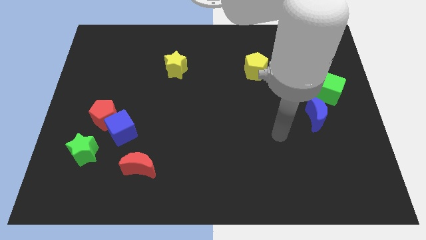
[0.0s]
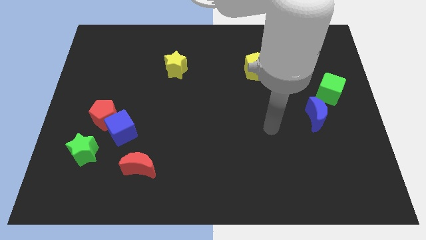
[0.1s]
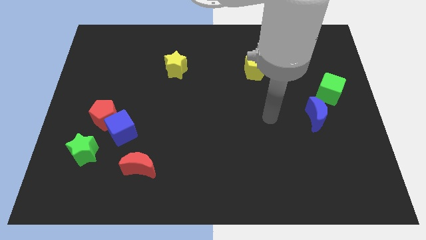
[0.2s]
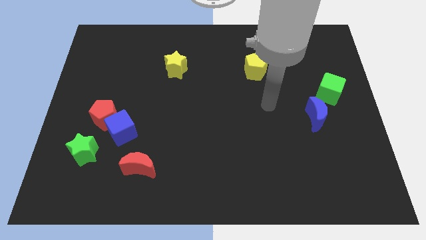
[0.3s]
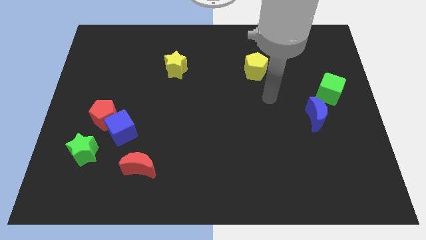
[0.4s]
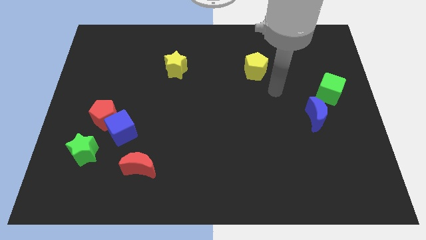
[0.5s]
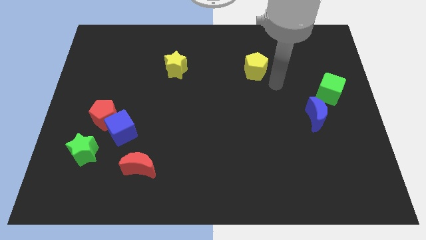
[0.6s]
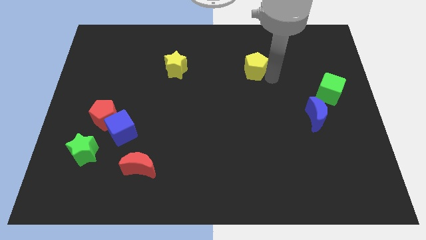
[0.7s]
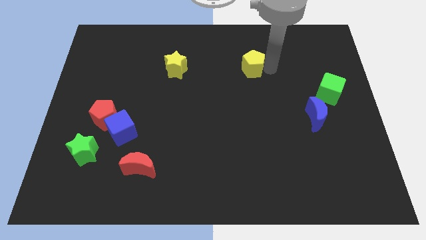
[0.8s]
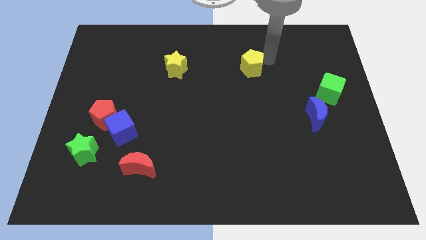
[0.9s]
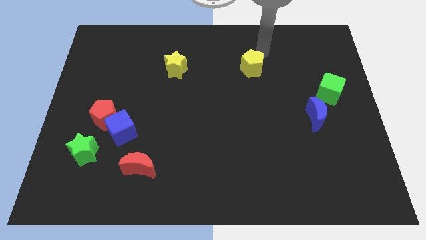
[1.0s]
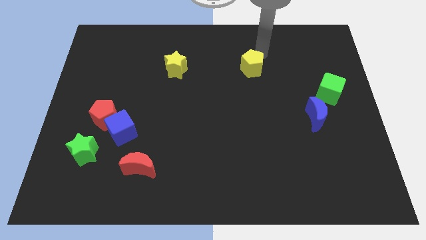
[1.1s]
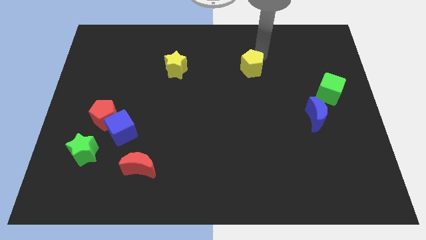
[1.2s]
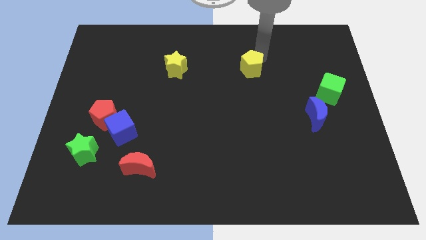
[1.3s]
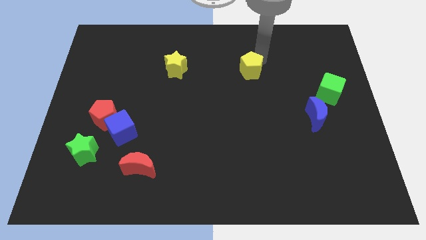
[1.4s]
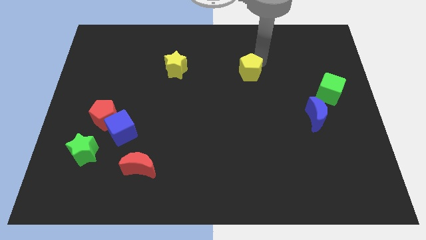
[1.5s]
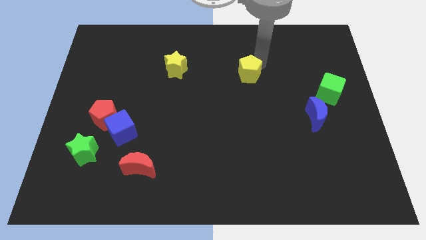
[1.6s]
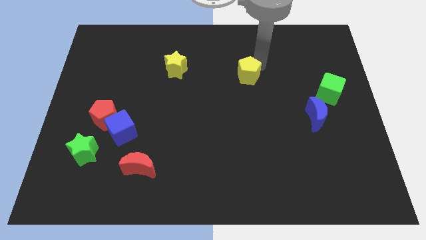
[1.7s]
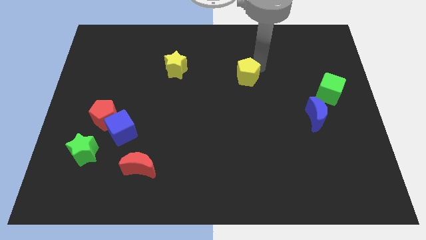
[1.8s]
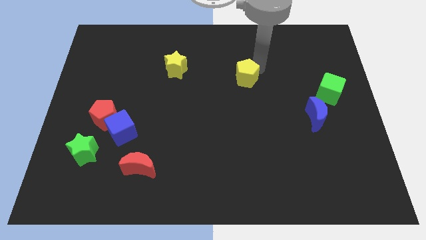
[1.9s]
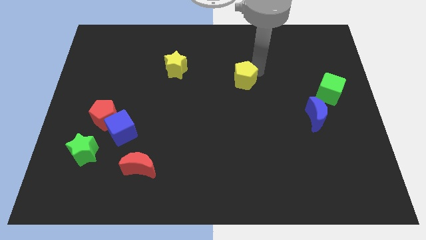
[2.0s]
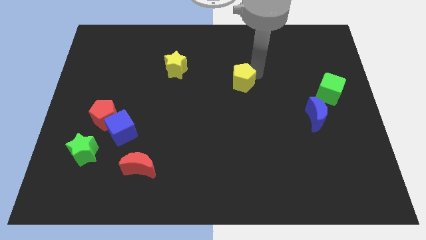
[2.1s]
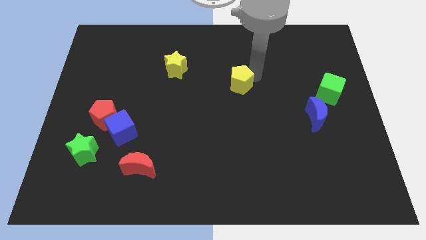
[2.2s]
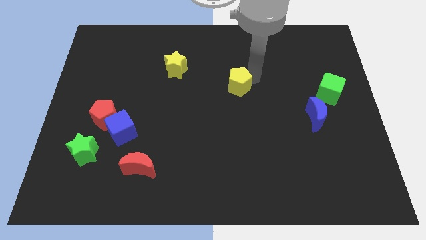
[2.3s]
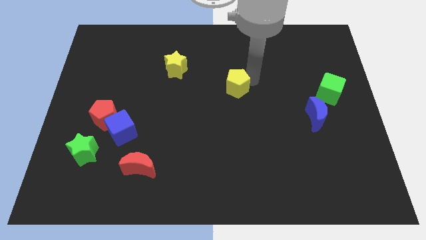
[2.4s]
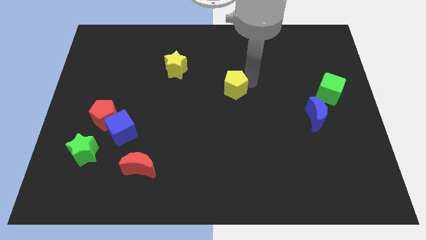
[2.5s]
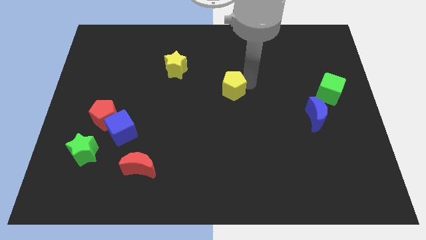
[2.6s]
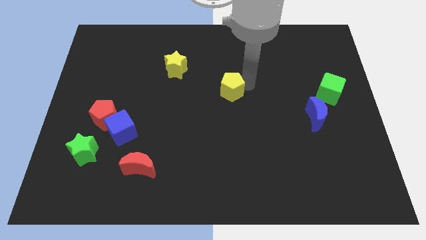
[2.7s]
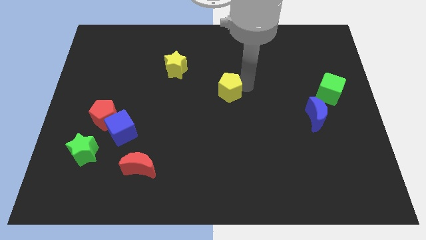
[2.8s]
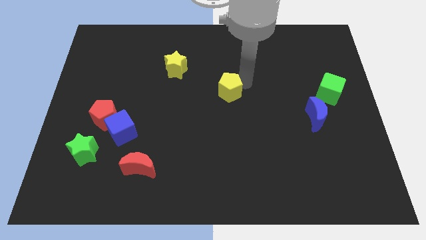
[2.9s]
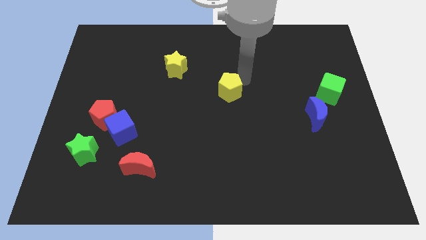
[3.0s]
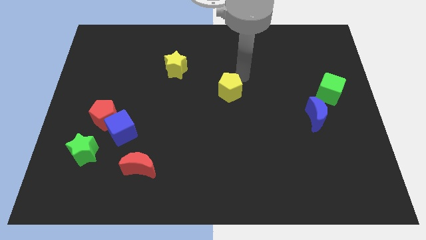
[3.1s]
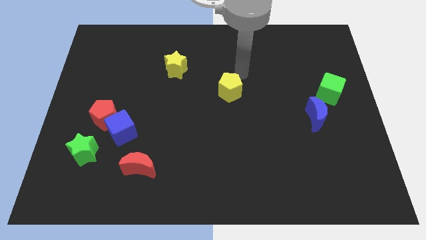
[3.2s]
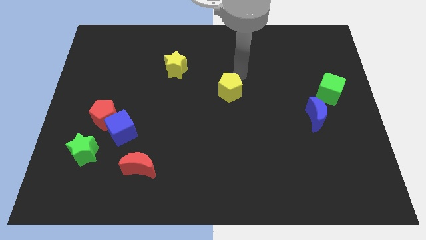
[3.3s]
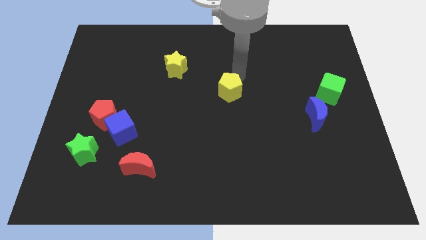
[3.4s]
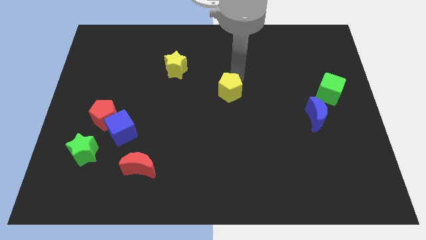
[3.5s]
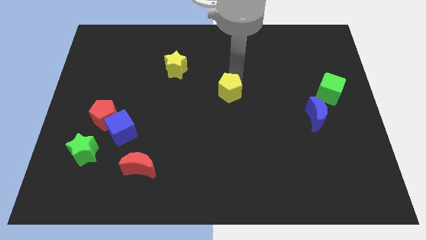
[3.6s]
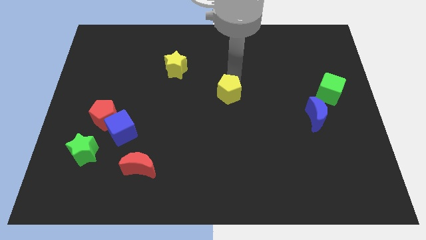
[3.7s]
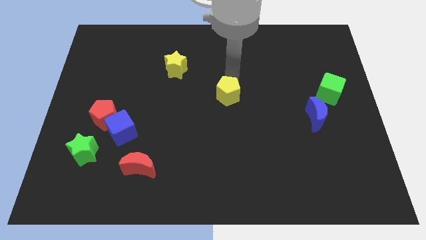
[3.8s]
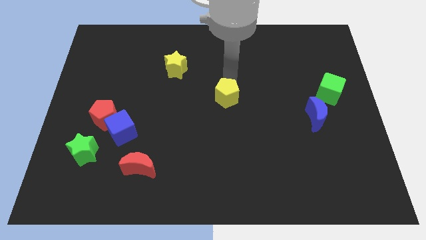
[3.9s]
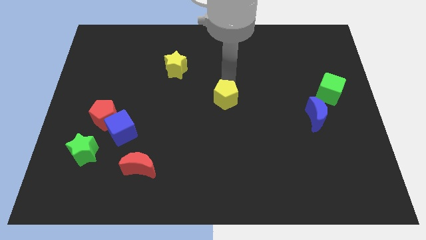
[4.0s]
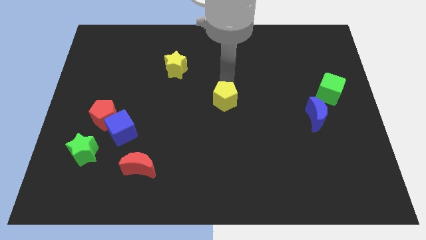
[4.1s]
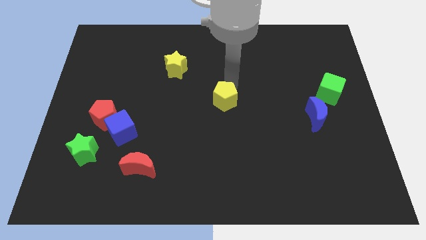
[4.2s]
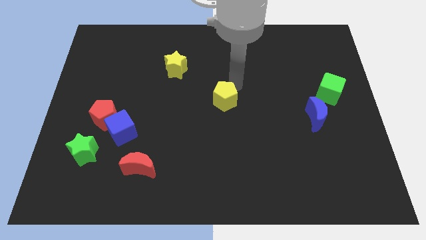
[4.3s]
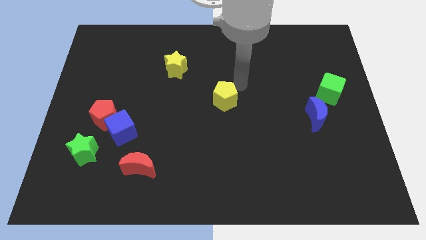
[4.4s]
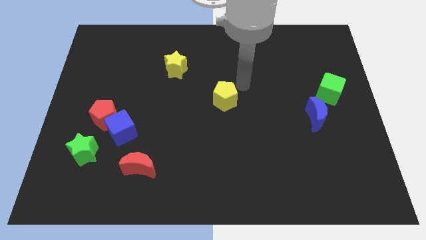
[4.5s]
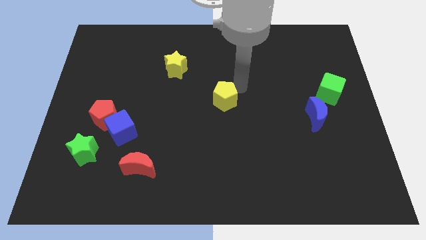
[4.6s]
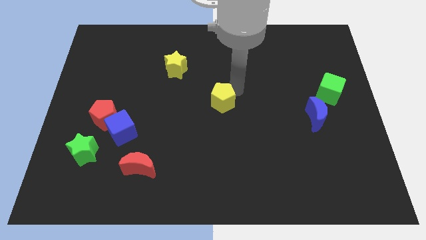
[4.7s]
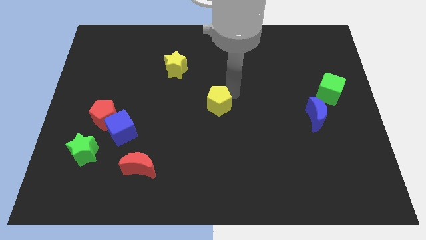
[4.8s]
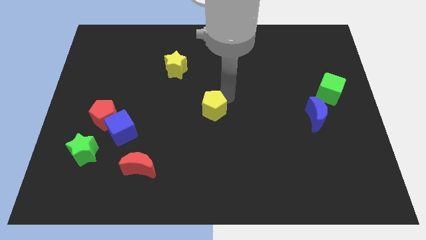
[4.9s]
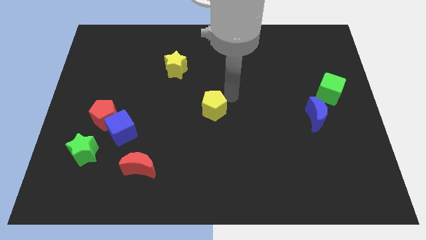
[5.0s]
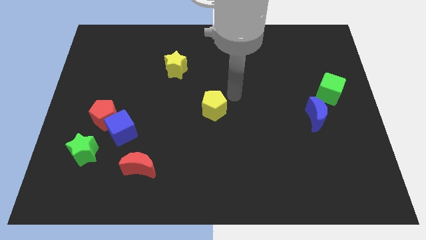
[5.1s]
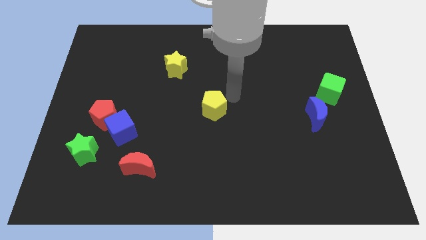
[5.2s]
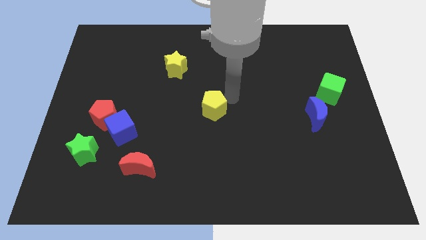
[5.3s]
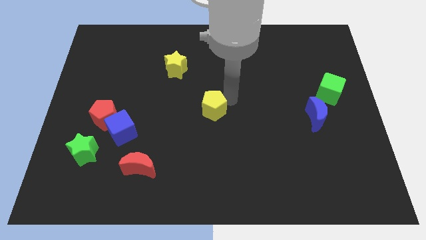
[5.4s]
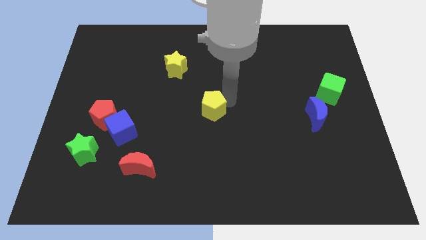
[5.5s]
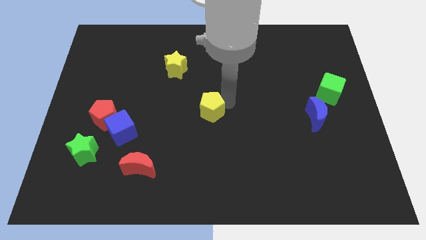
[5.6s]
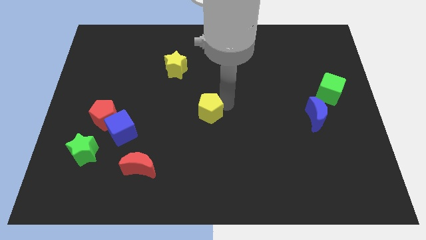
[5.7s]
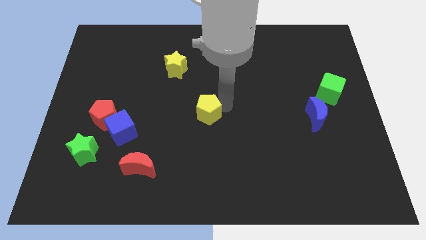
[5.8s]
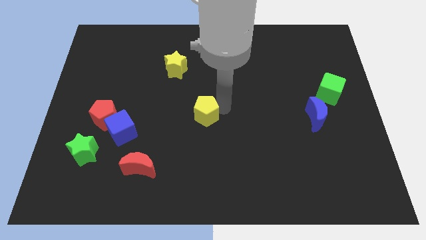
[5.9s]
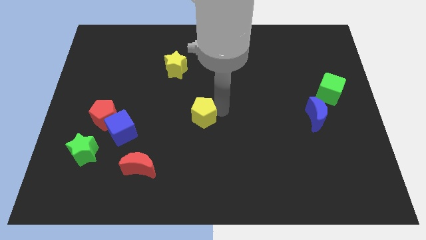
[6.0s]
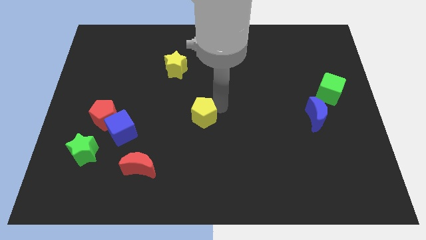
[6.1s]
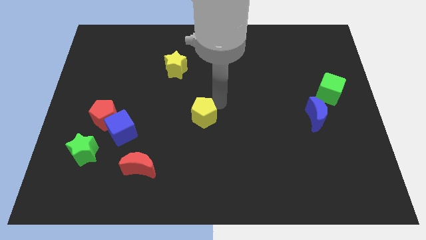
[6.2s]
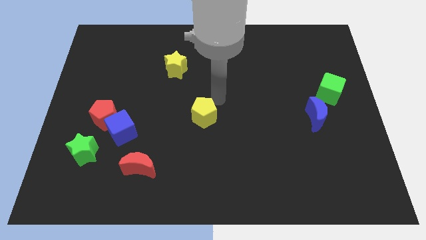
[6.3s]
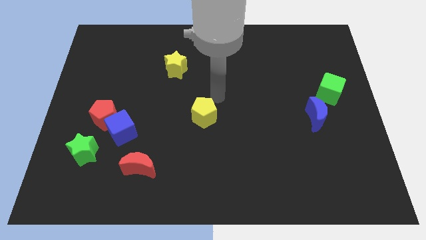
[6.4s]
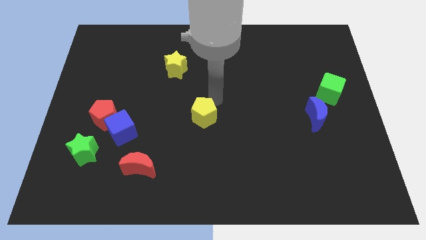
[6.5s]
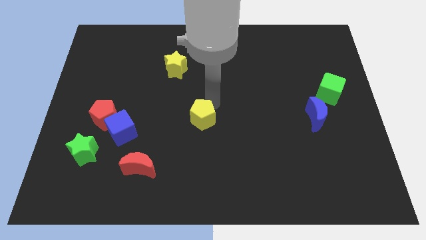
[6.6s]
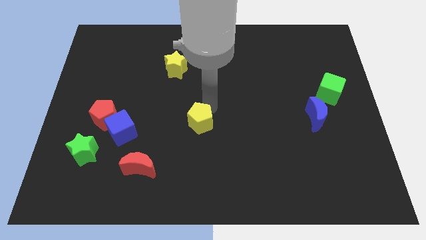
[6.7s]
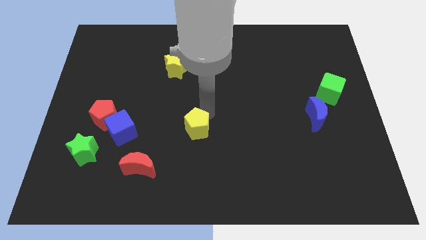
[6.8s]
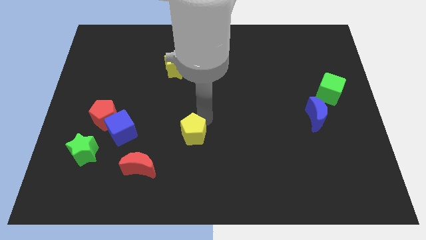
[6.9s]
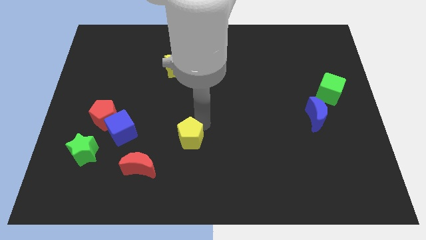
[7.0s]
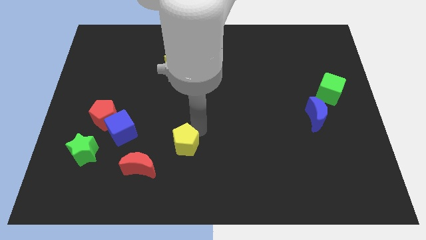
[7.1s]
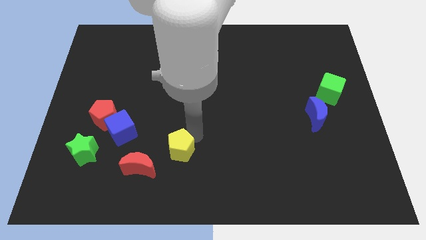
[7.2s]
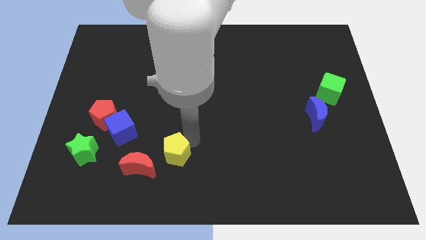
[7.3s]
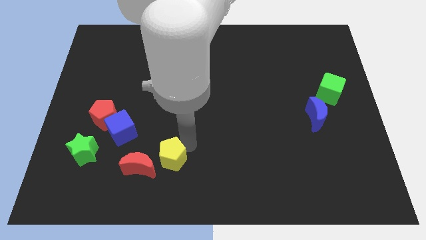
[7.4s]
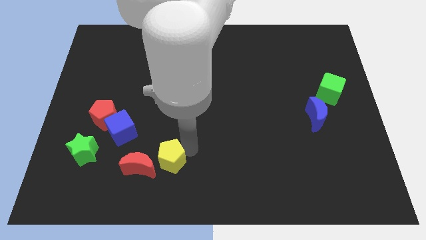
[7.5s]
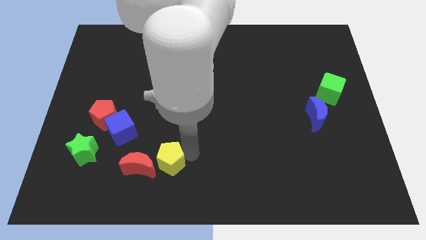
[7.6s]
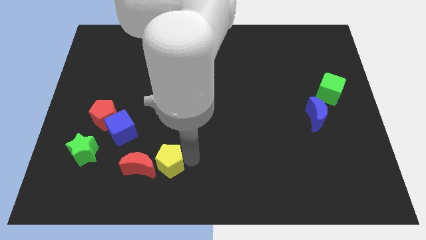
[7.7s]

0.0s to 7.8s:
push the yellow pentagon close to the red moon

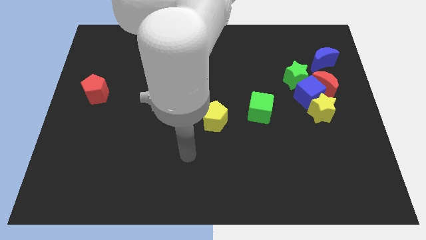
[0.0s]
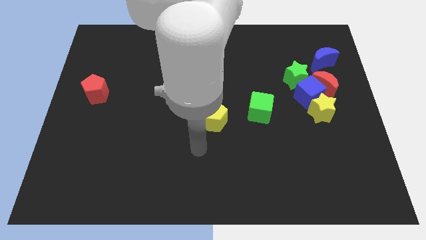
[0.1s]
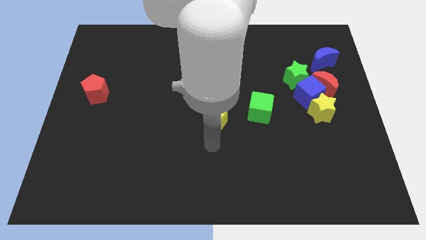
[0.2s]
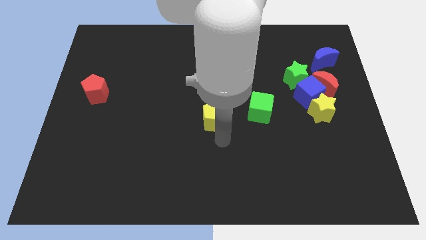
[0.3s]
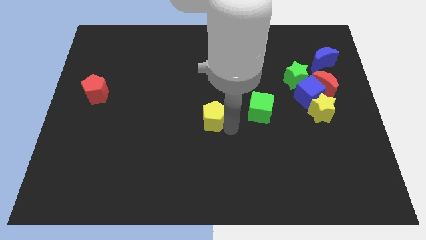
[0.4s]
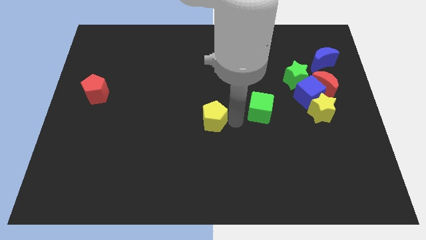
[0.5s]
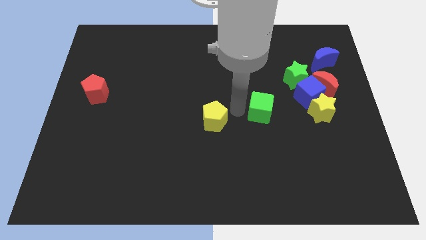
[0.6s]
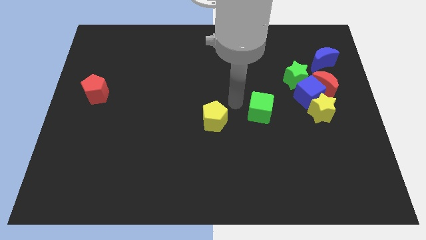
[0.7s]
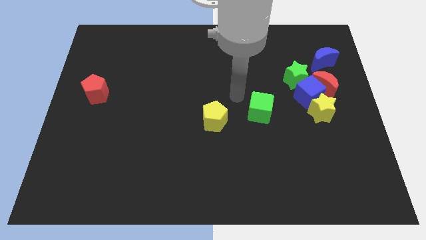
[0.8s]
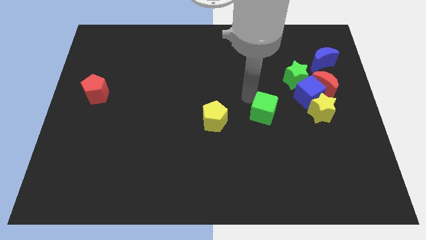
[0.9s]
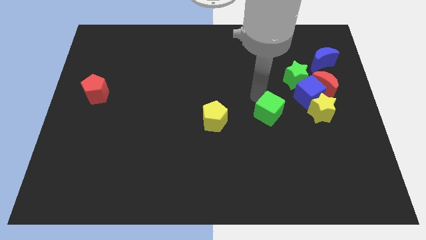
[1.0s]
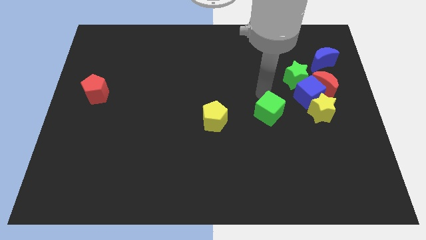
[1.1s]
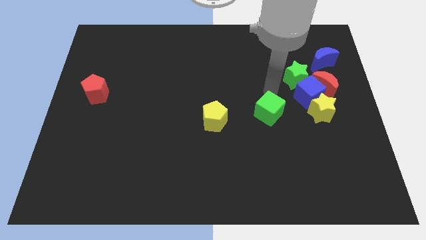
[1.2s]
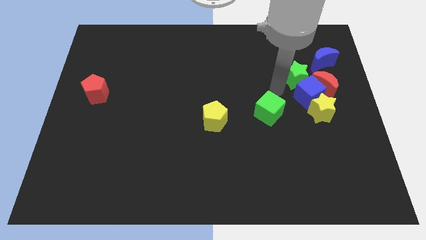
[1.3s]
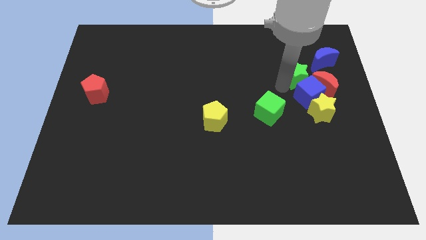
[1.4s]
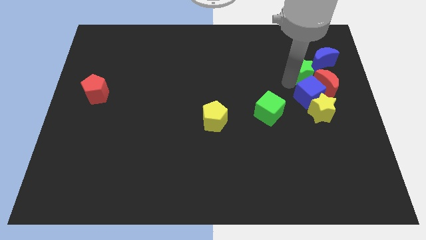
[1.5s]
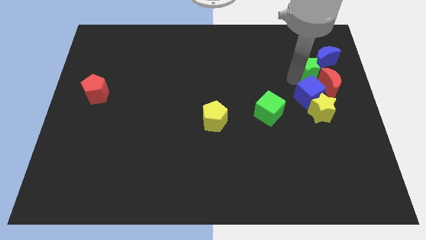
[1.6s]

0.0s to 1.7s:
put the green star towards the blue moon
